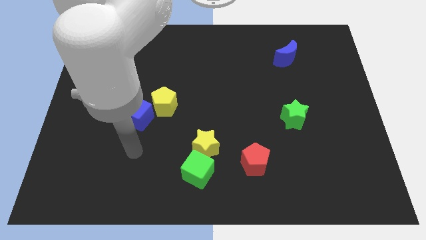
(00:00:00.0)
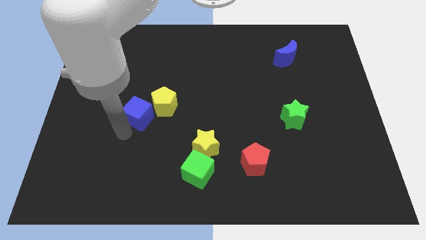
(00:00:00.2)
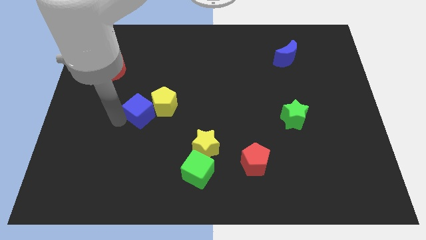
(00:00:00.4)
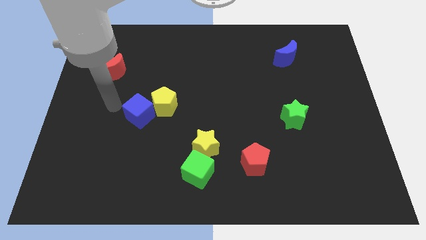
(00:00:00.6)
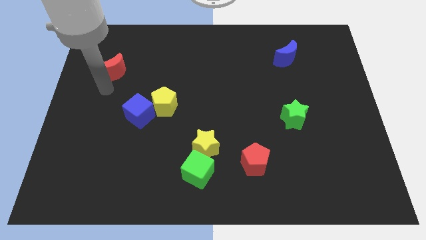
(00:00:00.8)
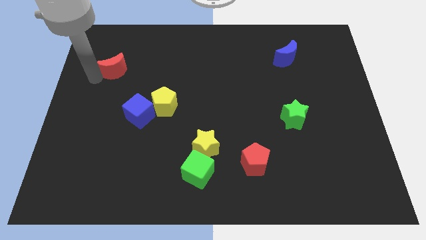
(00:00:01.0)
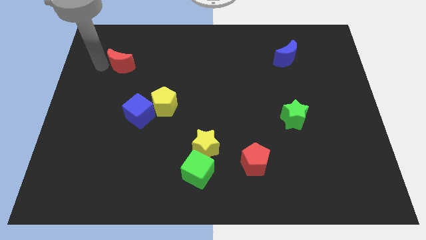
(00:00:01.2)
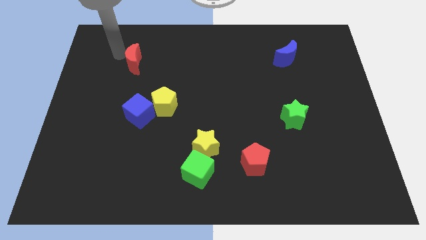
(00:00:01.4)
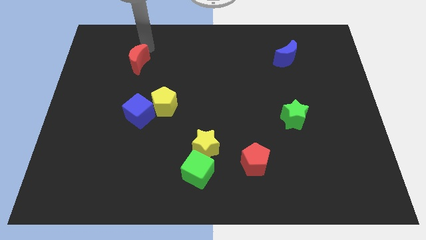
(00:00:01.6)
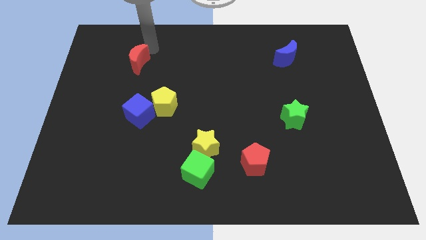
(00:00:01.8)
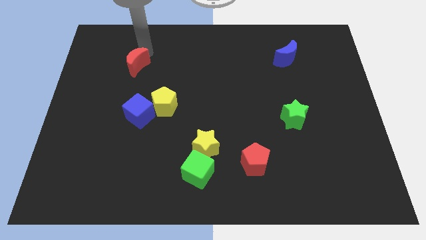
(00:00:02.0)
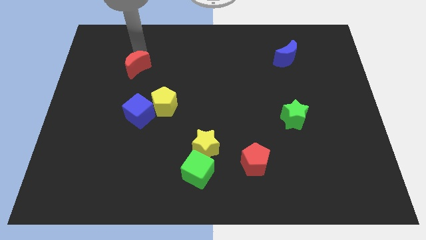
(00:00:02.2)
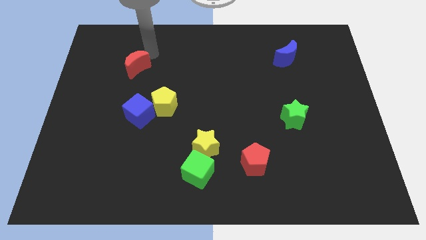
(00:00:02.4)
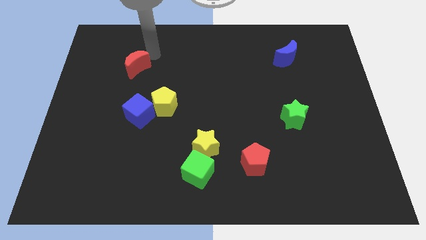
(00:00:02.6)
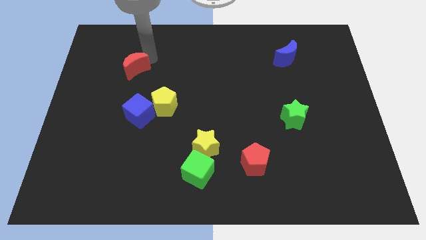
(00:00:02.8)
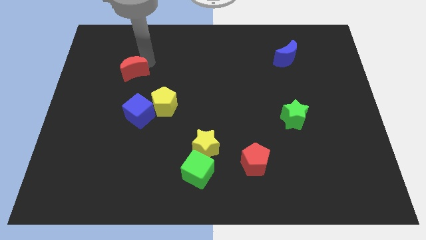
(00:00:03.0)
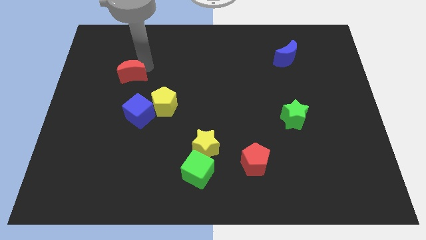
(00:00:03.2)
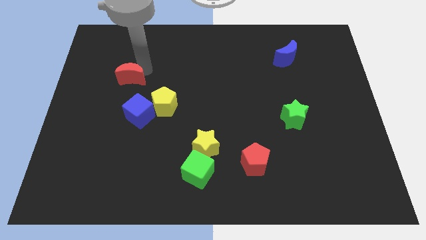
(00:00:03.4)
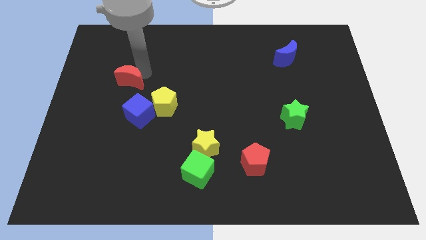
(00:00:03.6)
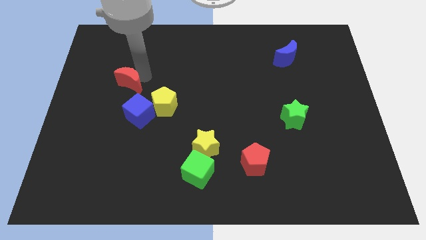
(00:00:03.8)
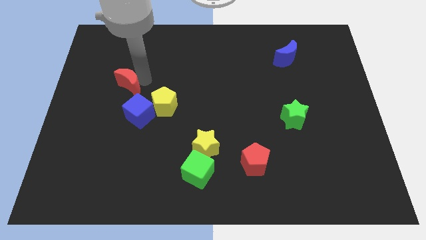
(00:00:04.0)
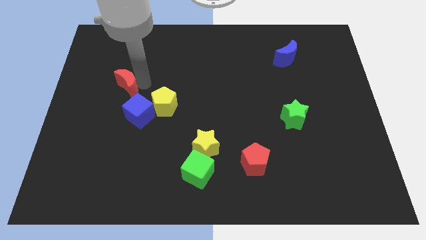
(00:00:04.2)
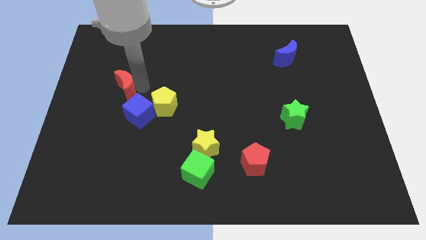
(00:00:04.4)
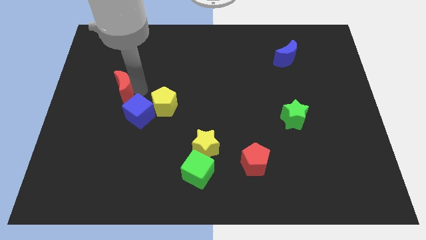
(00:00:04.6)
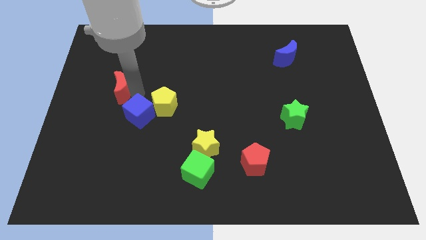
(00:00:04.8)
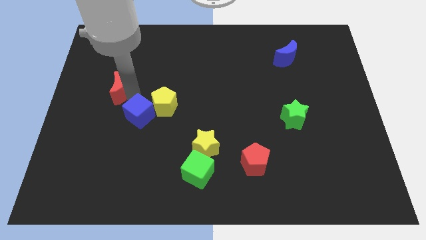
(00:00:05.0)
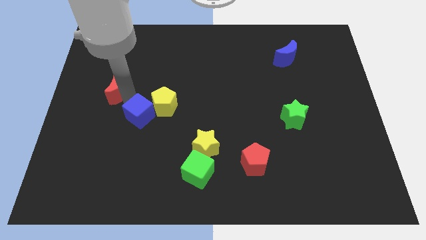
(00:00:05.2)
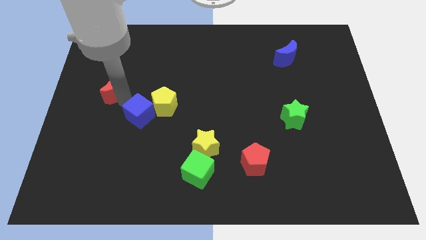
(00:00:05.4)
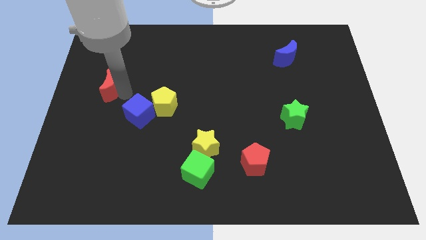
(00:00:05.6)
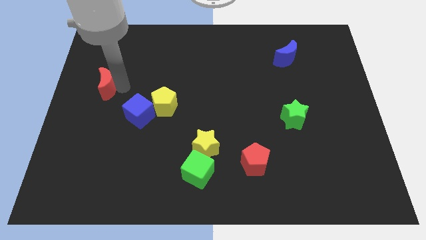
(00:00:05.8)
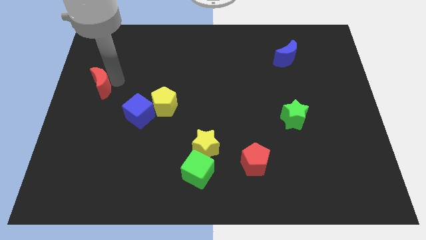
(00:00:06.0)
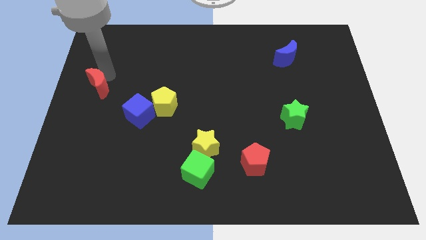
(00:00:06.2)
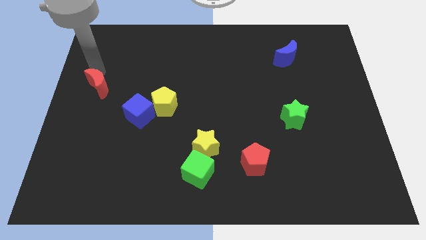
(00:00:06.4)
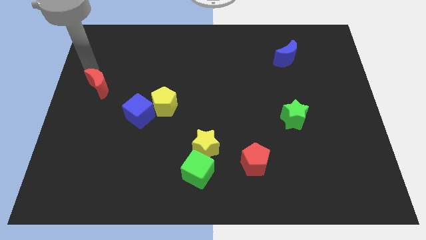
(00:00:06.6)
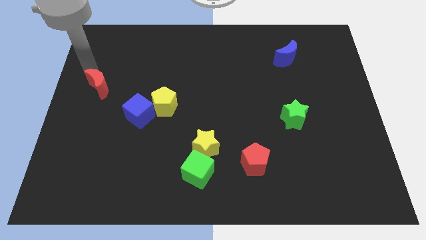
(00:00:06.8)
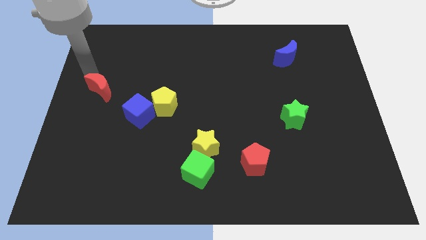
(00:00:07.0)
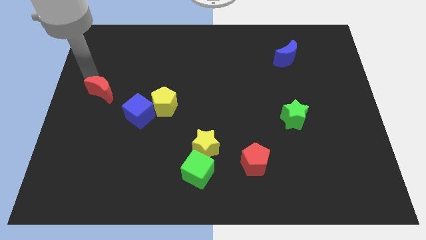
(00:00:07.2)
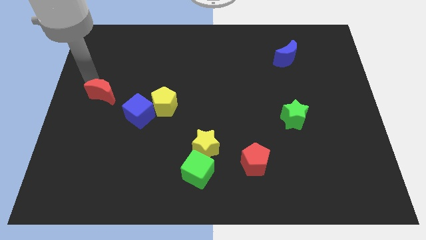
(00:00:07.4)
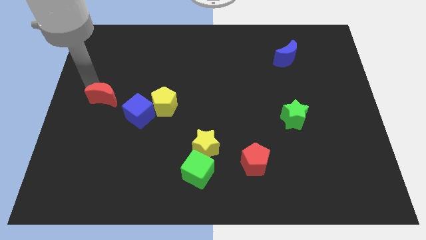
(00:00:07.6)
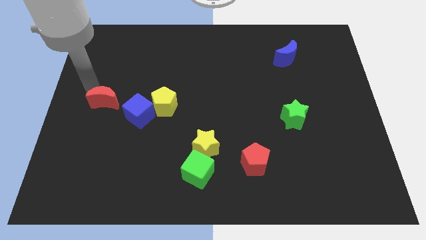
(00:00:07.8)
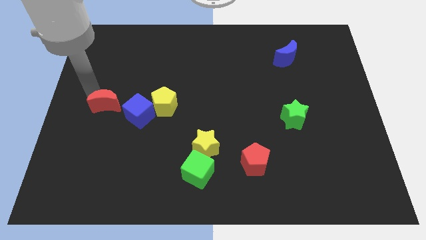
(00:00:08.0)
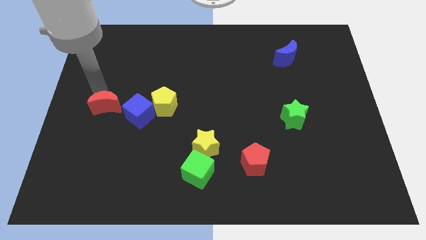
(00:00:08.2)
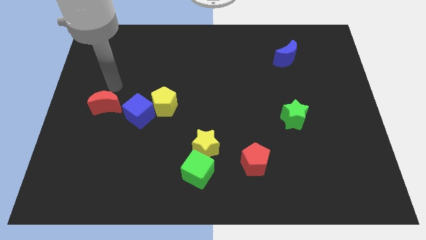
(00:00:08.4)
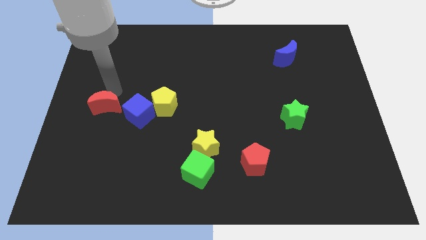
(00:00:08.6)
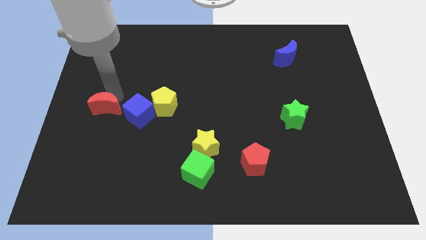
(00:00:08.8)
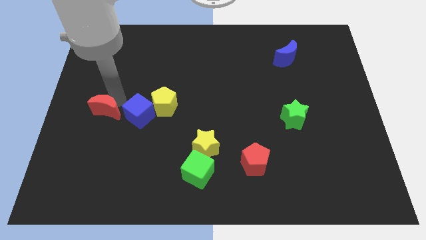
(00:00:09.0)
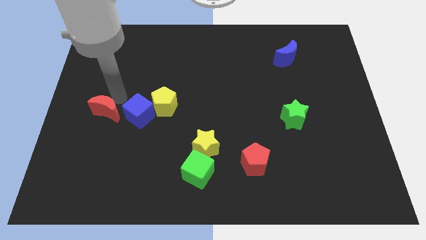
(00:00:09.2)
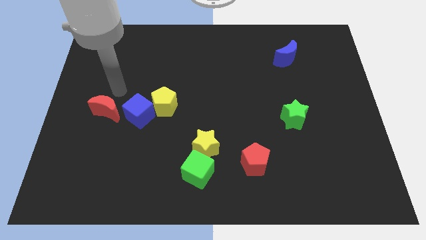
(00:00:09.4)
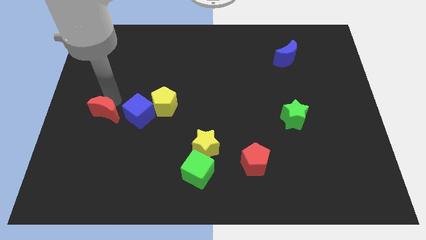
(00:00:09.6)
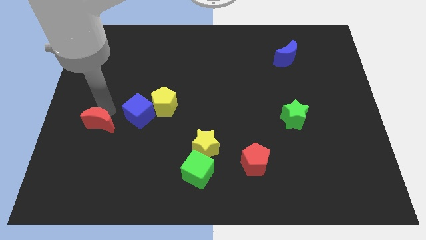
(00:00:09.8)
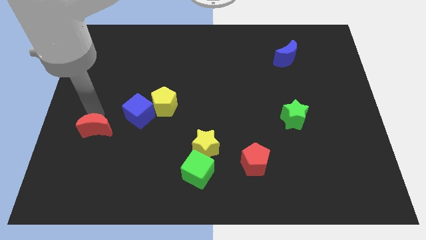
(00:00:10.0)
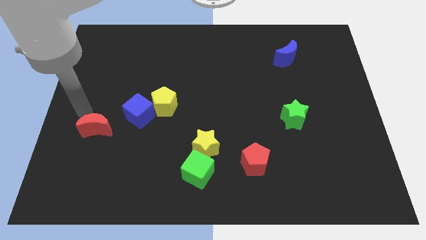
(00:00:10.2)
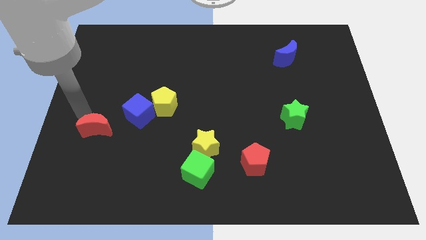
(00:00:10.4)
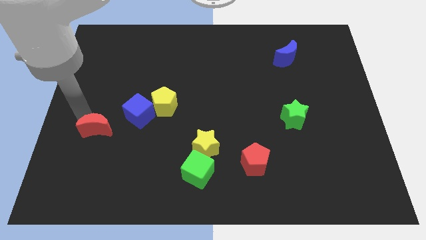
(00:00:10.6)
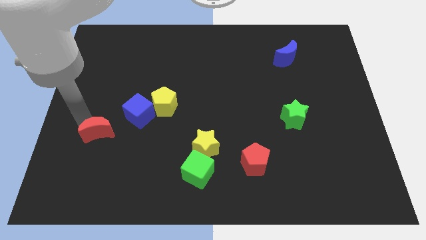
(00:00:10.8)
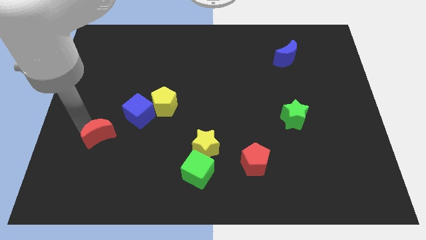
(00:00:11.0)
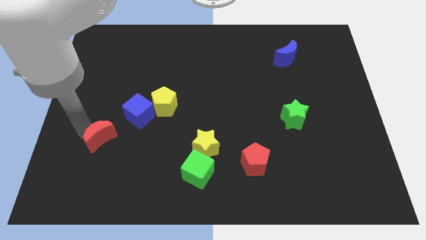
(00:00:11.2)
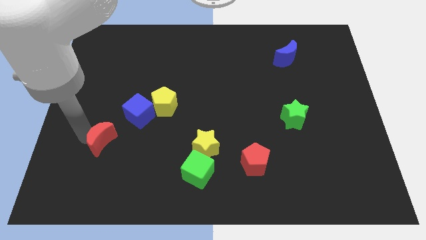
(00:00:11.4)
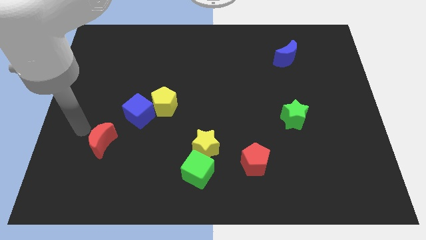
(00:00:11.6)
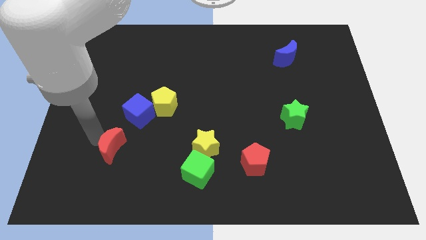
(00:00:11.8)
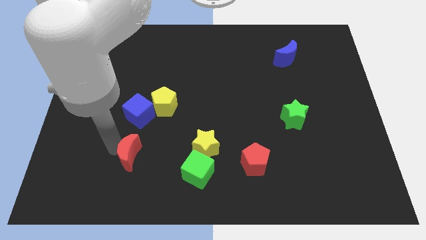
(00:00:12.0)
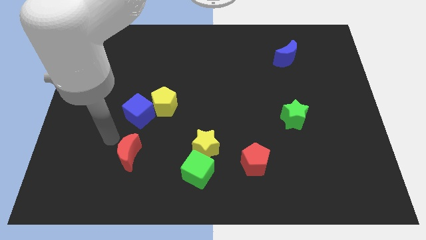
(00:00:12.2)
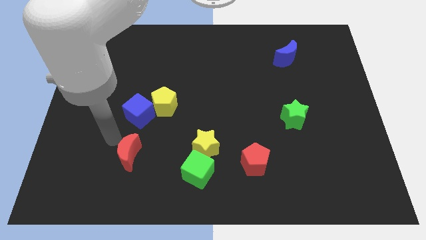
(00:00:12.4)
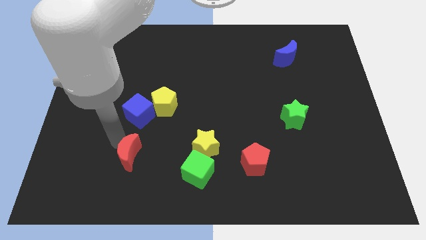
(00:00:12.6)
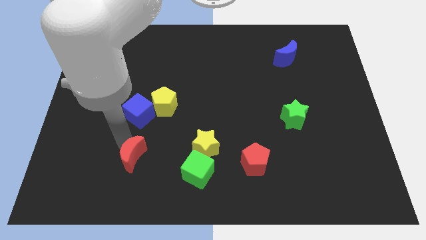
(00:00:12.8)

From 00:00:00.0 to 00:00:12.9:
put the red moon to the left of the green cube
